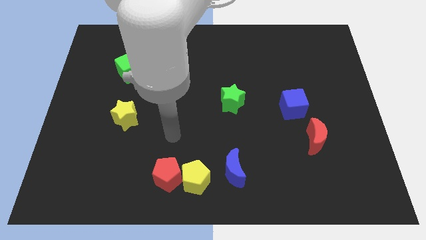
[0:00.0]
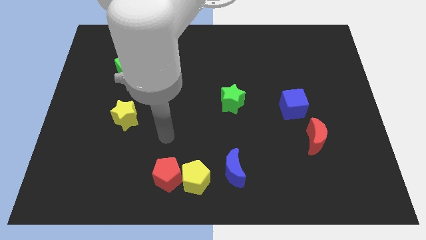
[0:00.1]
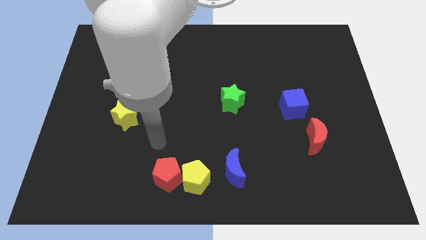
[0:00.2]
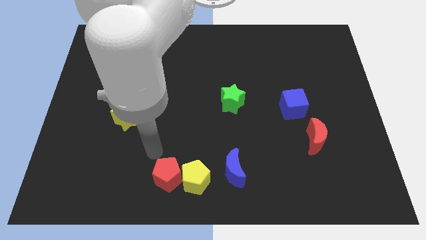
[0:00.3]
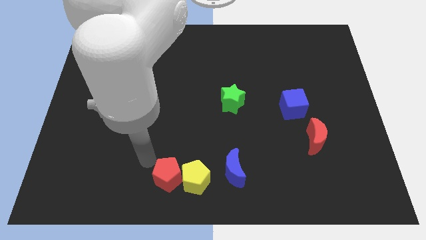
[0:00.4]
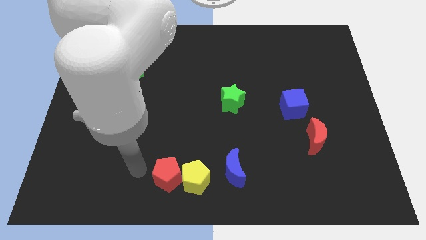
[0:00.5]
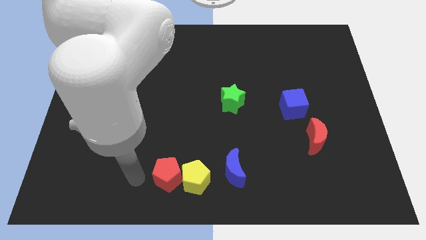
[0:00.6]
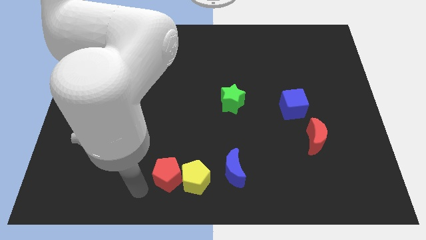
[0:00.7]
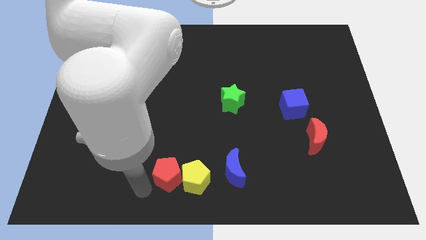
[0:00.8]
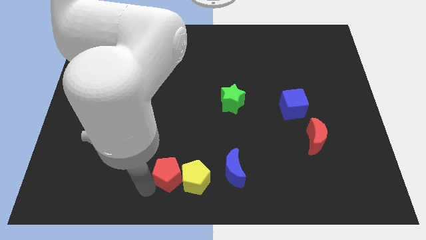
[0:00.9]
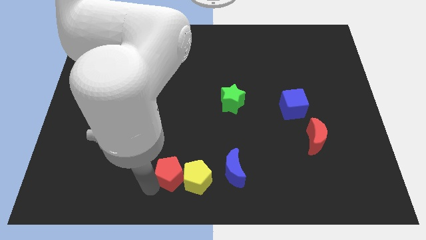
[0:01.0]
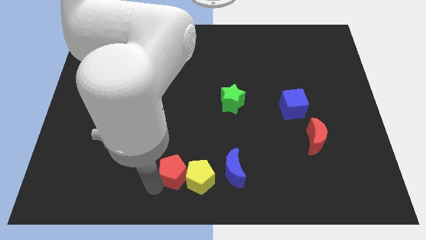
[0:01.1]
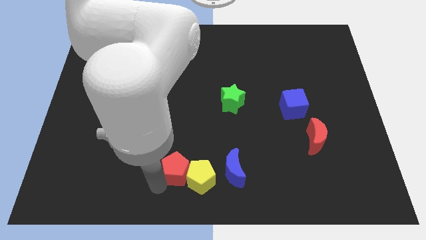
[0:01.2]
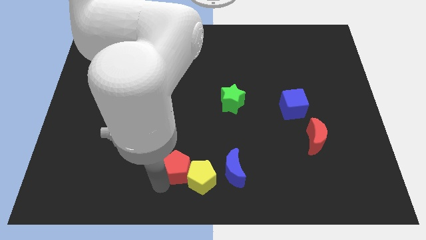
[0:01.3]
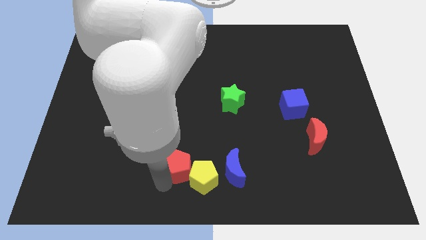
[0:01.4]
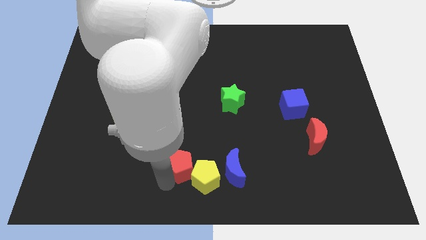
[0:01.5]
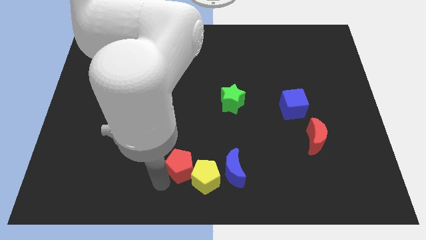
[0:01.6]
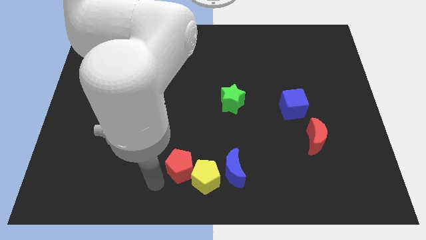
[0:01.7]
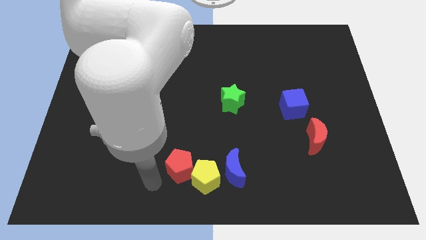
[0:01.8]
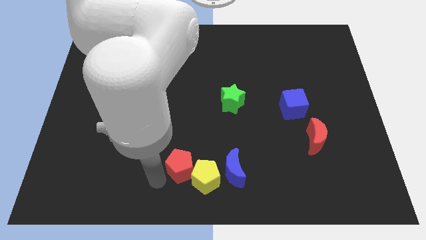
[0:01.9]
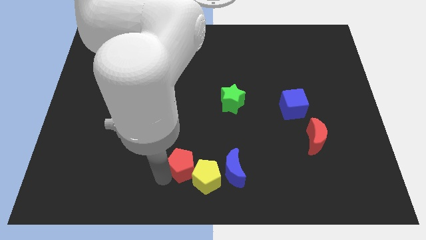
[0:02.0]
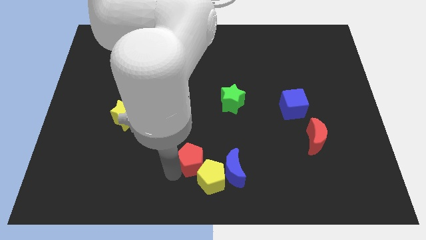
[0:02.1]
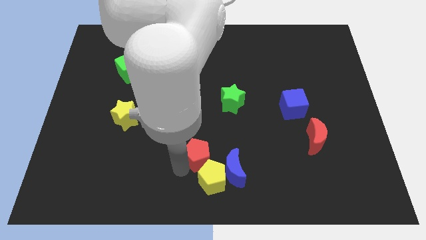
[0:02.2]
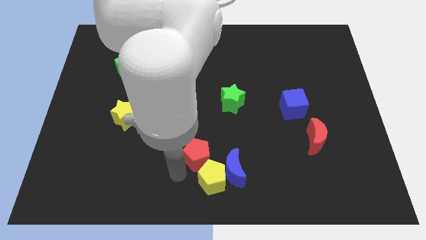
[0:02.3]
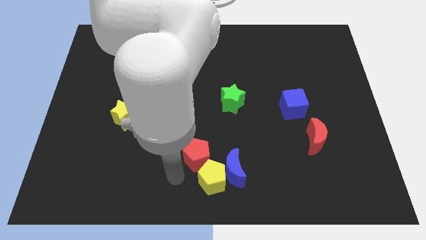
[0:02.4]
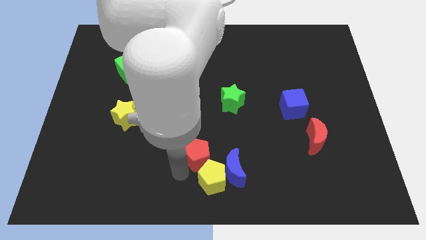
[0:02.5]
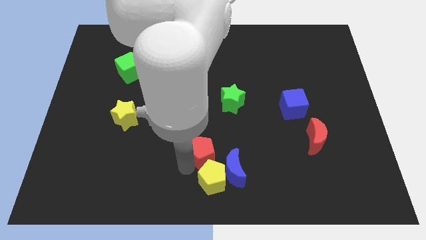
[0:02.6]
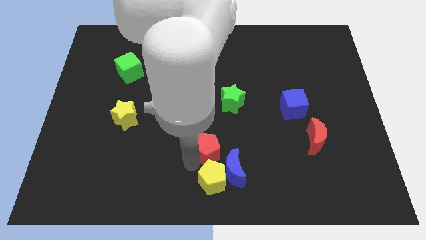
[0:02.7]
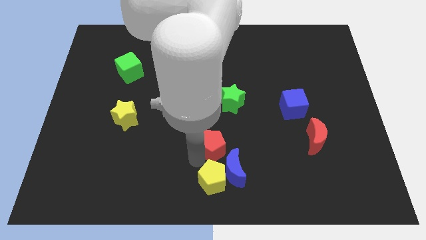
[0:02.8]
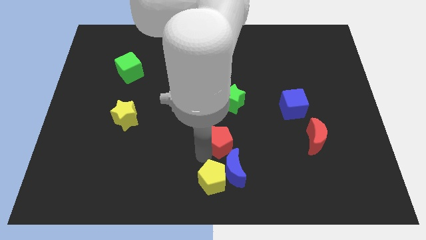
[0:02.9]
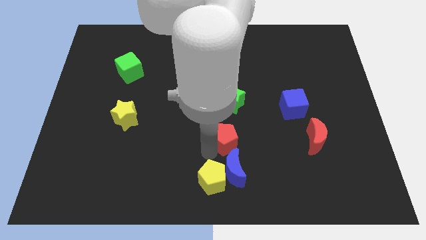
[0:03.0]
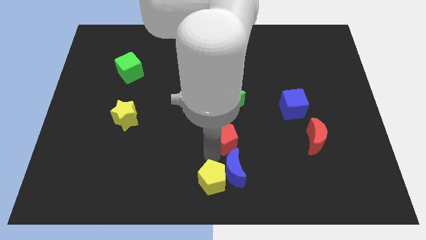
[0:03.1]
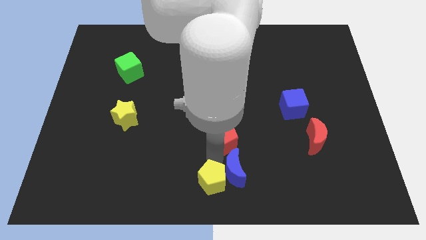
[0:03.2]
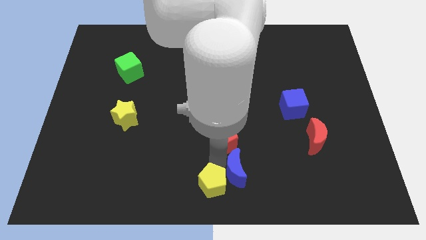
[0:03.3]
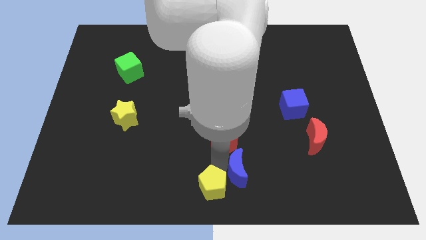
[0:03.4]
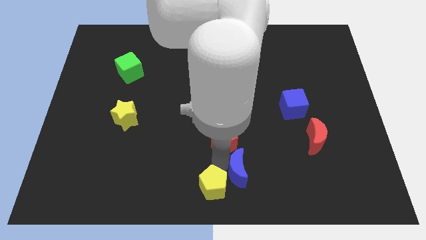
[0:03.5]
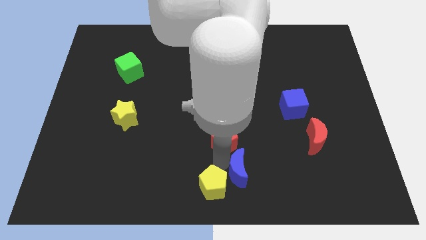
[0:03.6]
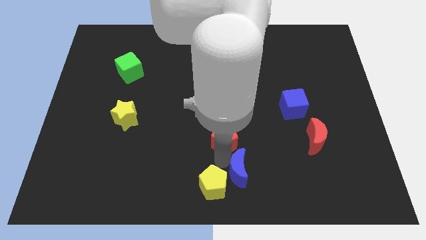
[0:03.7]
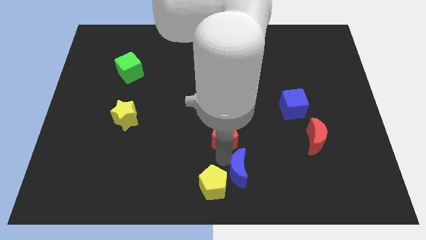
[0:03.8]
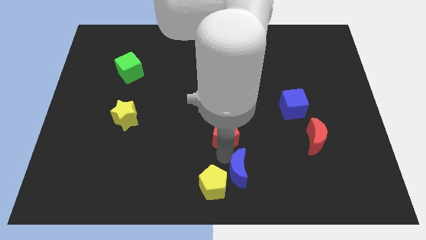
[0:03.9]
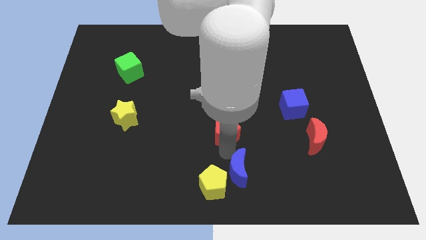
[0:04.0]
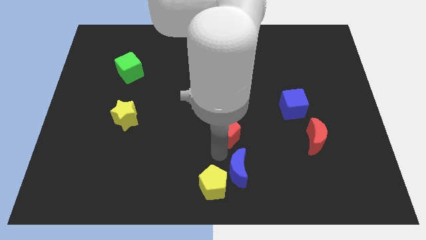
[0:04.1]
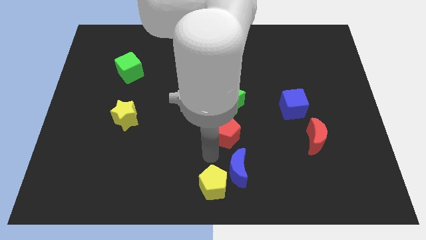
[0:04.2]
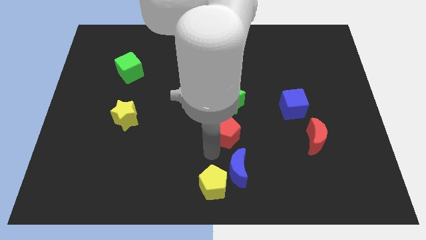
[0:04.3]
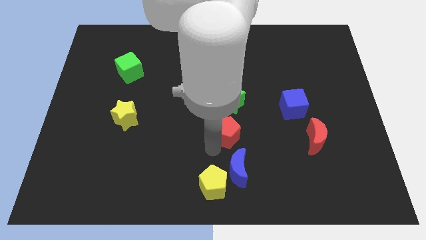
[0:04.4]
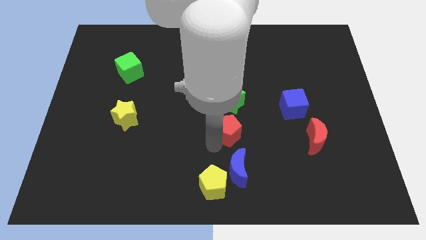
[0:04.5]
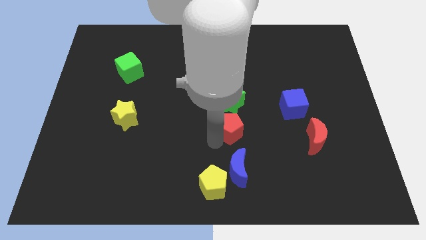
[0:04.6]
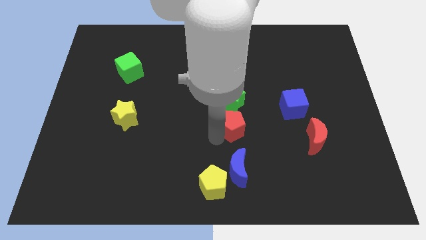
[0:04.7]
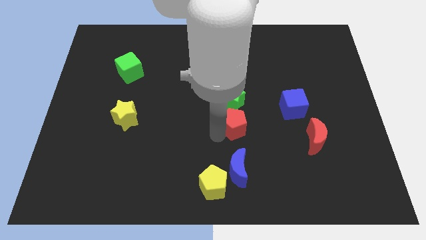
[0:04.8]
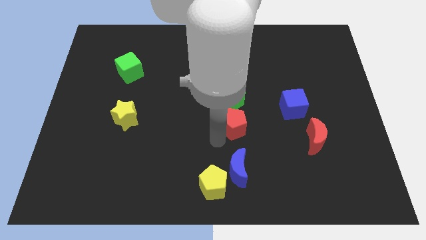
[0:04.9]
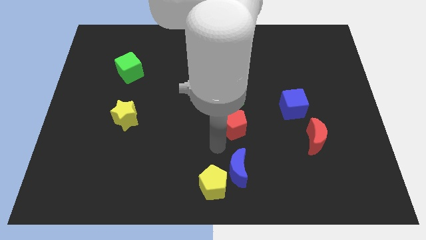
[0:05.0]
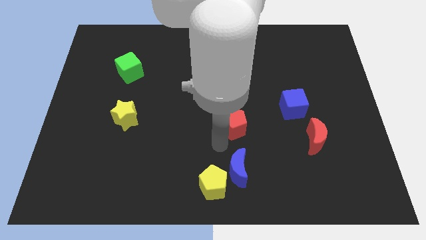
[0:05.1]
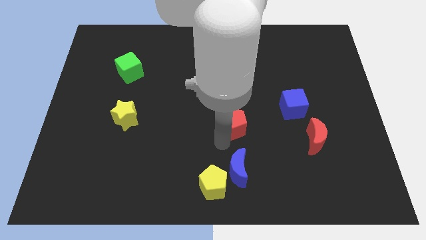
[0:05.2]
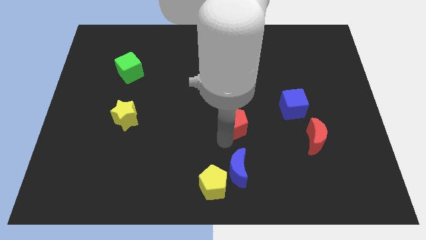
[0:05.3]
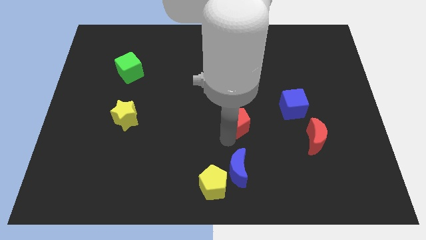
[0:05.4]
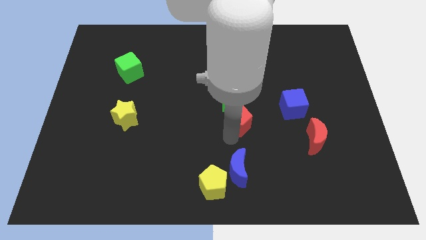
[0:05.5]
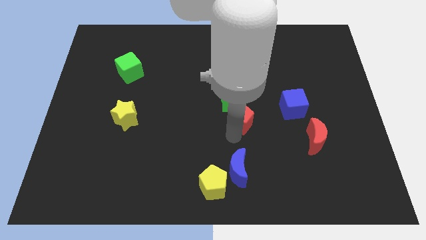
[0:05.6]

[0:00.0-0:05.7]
move the red pentagon left of the blue cube
